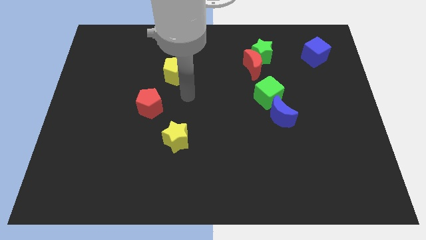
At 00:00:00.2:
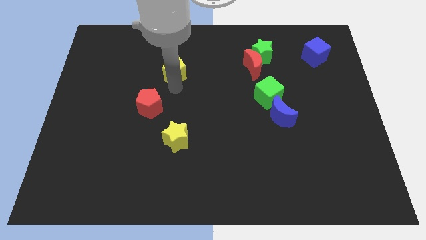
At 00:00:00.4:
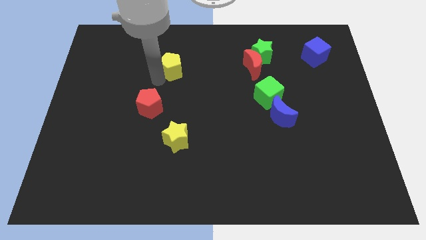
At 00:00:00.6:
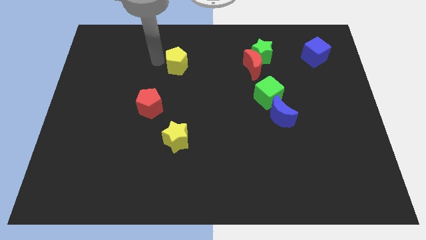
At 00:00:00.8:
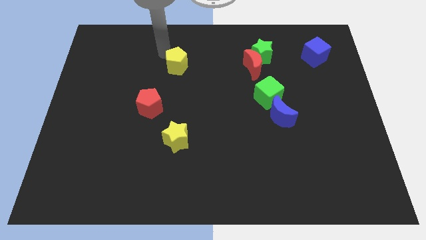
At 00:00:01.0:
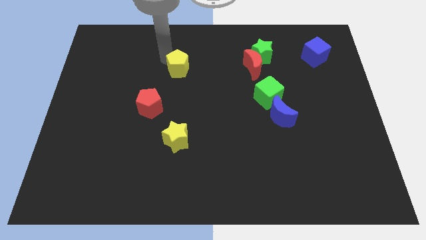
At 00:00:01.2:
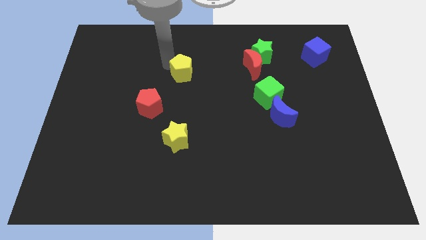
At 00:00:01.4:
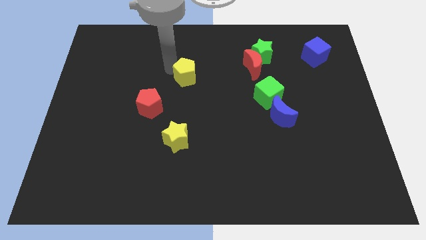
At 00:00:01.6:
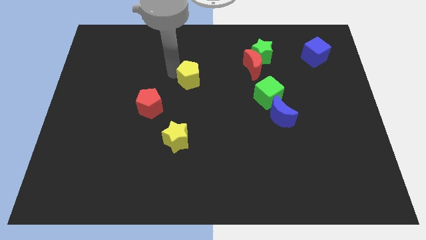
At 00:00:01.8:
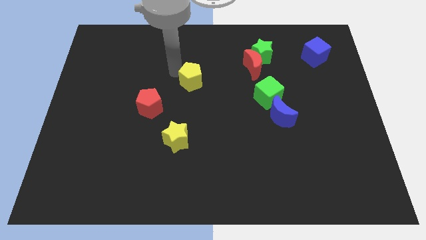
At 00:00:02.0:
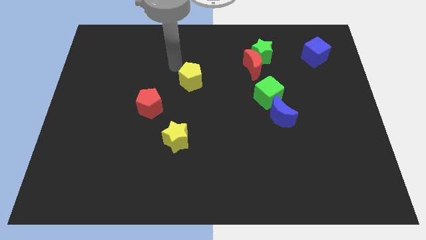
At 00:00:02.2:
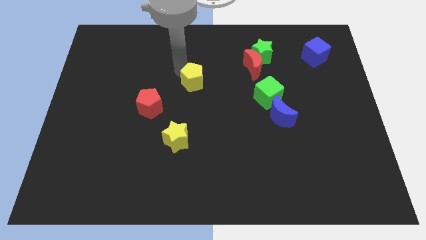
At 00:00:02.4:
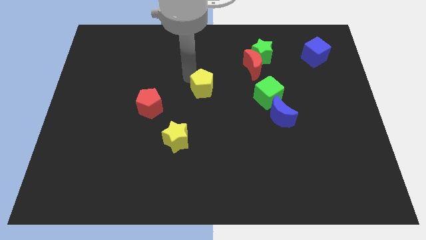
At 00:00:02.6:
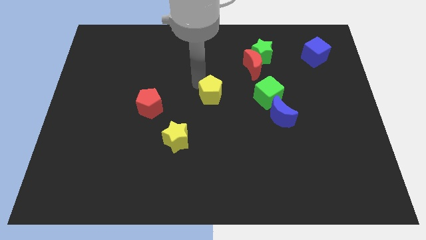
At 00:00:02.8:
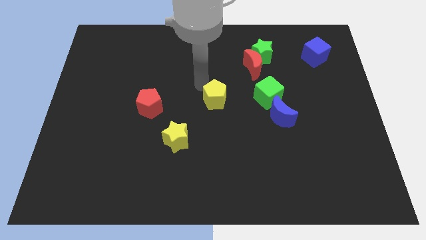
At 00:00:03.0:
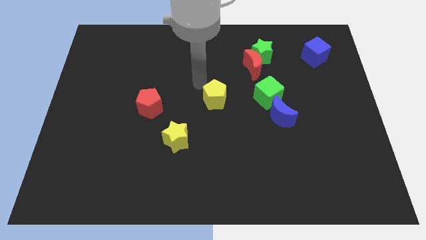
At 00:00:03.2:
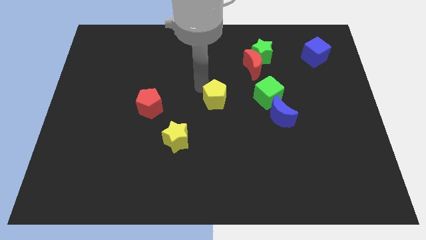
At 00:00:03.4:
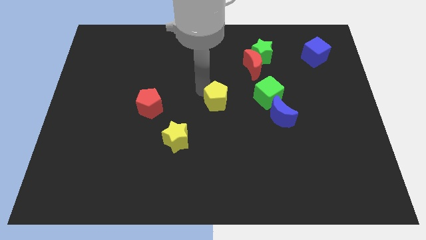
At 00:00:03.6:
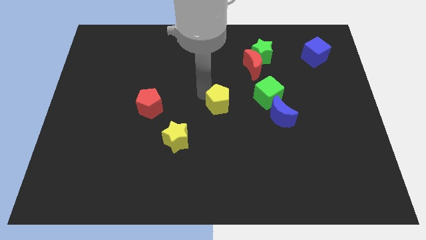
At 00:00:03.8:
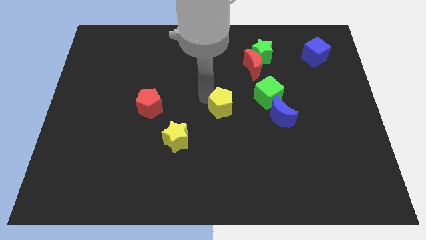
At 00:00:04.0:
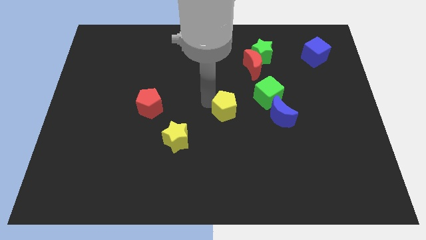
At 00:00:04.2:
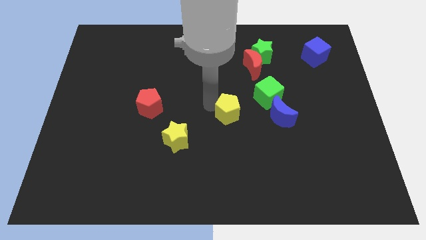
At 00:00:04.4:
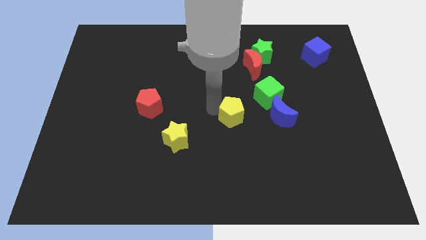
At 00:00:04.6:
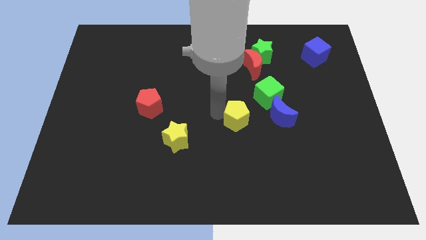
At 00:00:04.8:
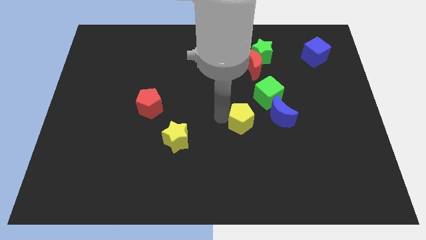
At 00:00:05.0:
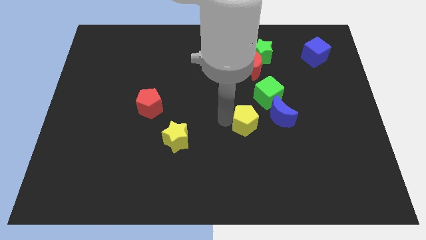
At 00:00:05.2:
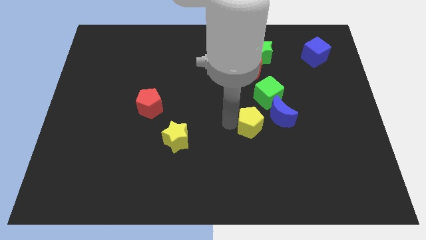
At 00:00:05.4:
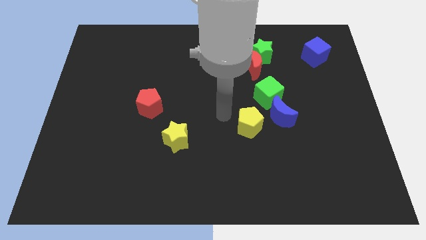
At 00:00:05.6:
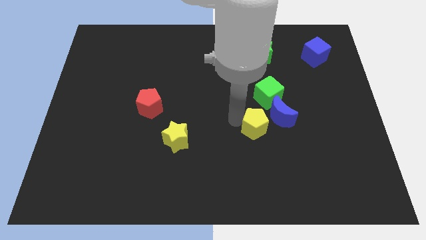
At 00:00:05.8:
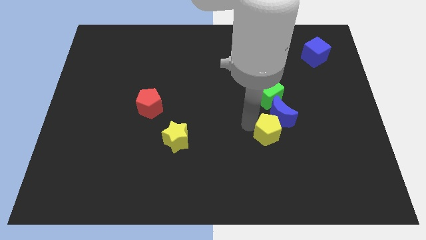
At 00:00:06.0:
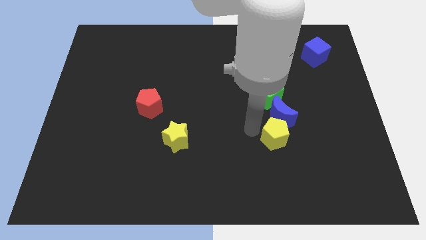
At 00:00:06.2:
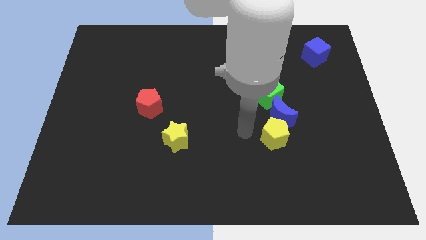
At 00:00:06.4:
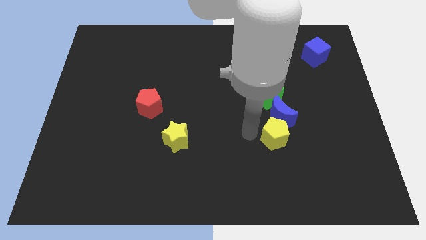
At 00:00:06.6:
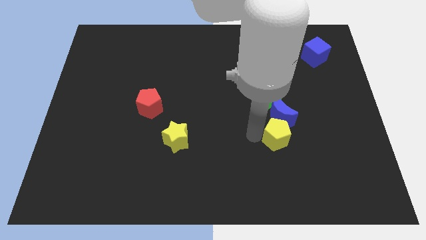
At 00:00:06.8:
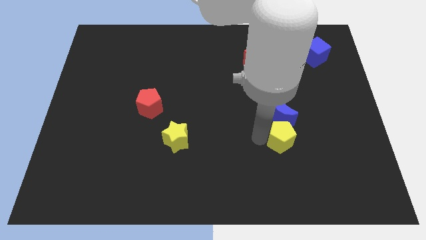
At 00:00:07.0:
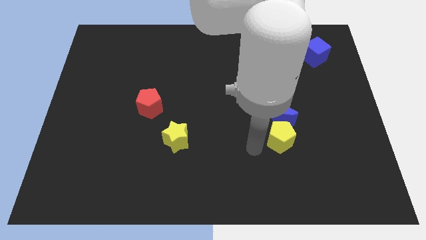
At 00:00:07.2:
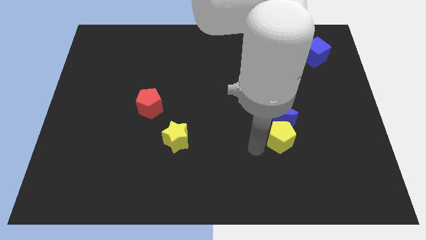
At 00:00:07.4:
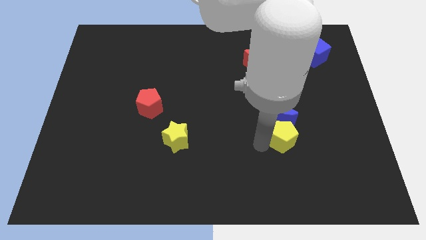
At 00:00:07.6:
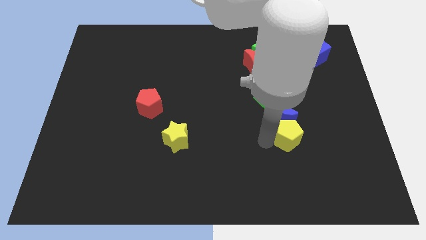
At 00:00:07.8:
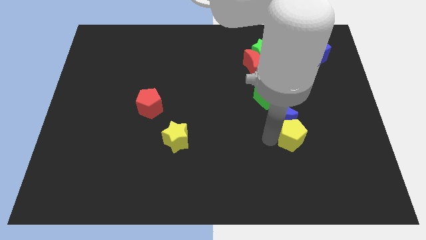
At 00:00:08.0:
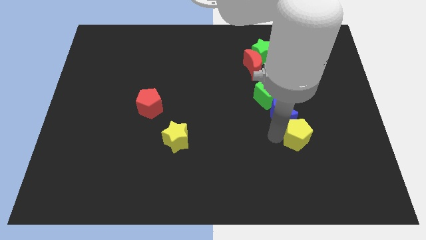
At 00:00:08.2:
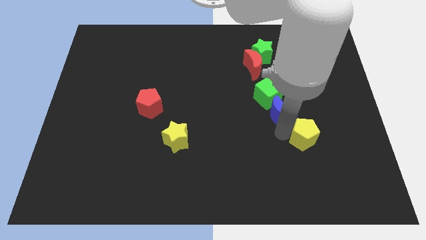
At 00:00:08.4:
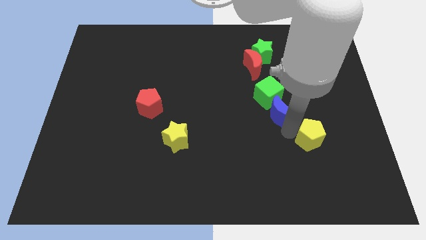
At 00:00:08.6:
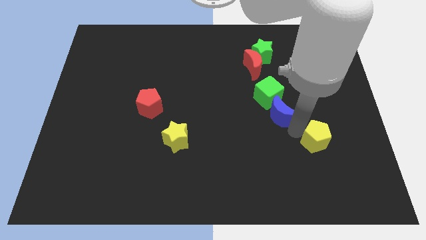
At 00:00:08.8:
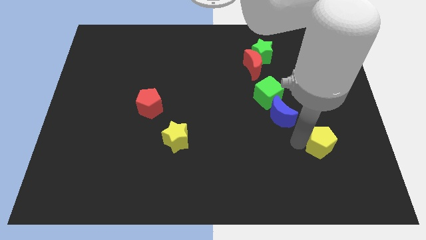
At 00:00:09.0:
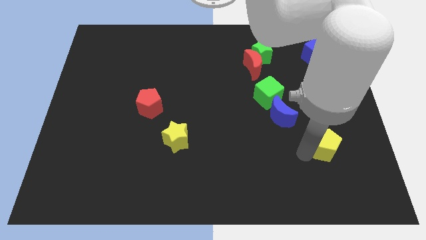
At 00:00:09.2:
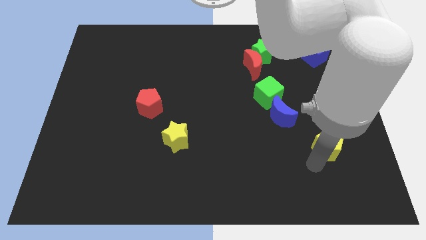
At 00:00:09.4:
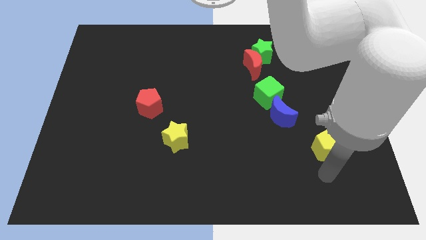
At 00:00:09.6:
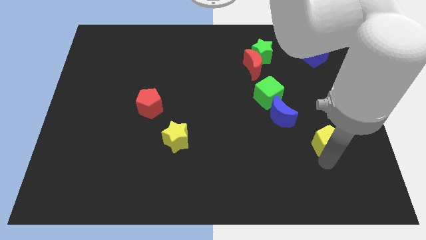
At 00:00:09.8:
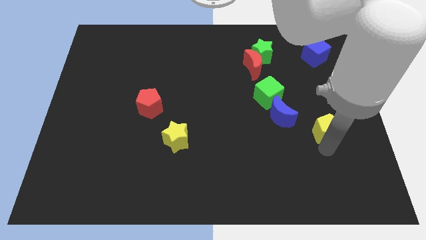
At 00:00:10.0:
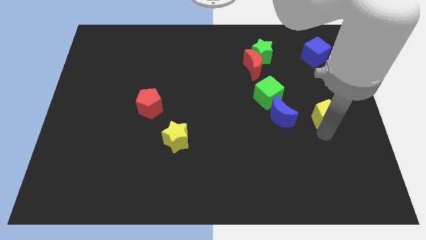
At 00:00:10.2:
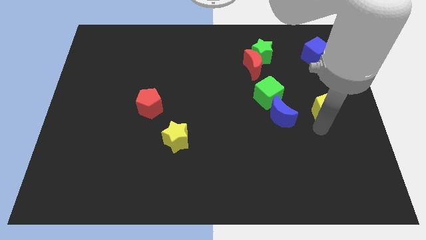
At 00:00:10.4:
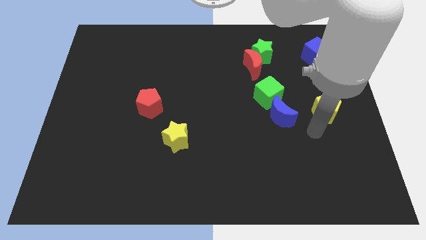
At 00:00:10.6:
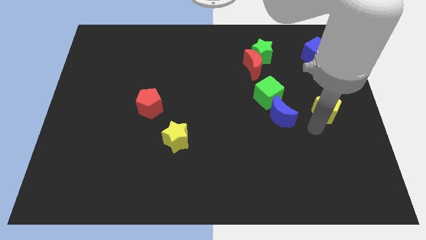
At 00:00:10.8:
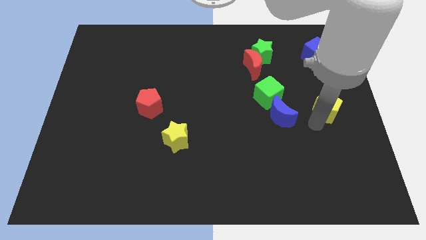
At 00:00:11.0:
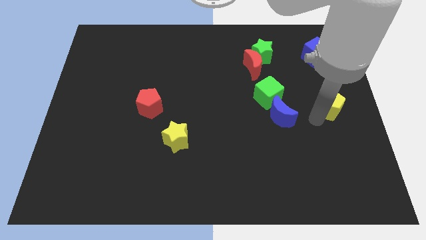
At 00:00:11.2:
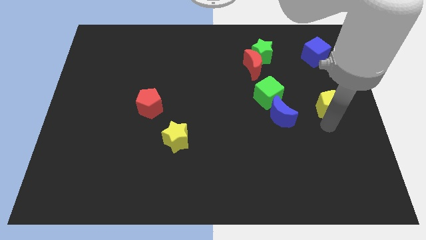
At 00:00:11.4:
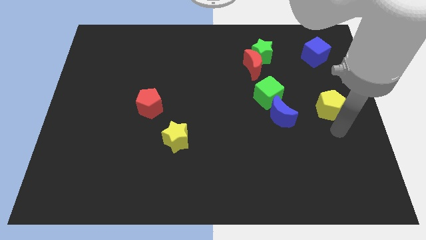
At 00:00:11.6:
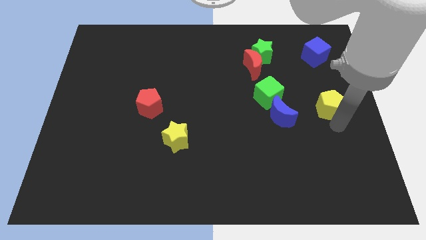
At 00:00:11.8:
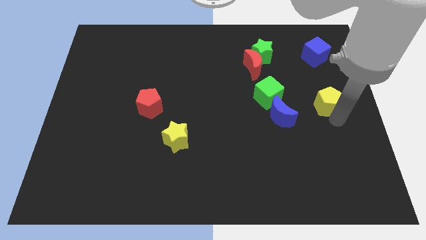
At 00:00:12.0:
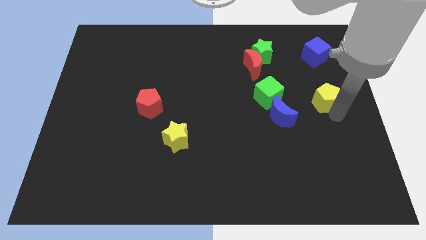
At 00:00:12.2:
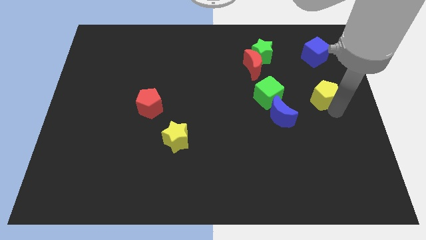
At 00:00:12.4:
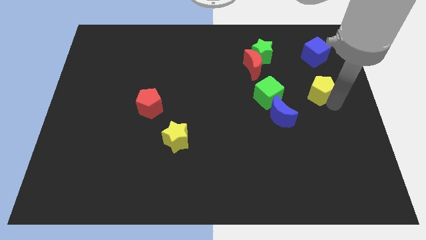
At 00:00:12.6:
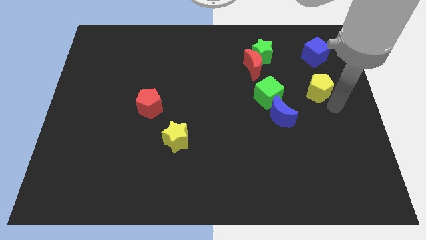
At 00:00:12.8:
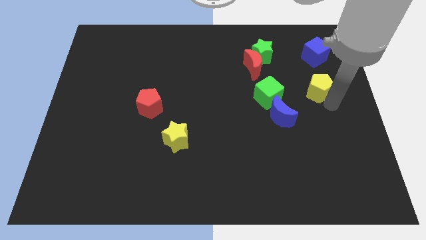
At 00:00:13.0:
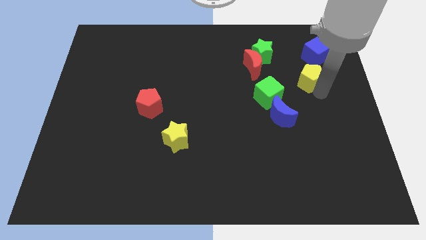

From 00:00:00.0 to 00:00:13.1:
push the yellow pentagon to the bottom left side of the blue cube

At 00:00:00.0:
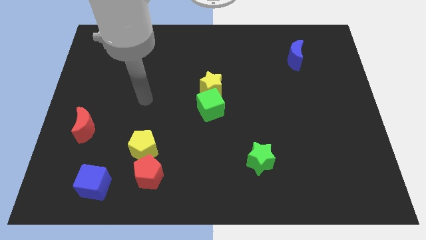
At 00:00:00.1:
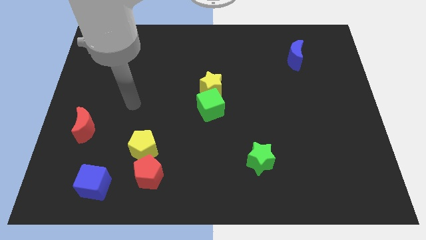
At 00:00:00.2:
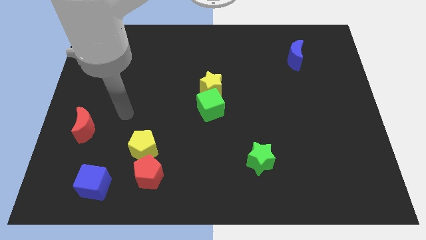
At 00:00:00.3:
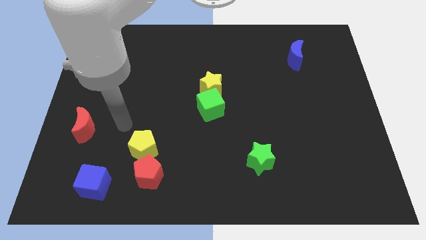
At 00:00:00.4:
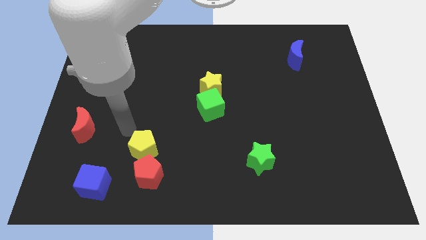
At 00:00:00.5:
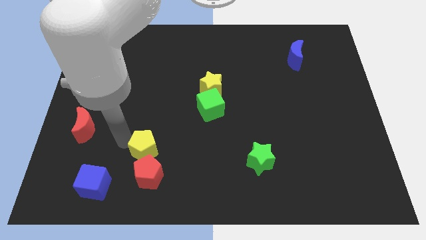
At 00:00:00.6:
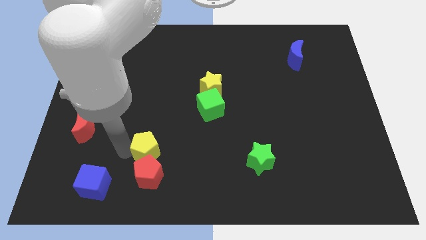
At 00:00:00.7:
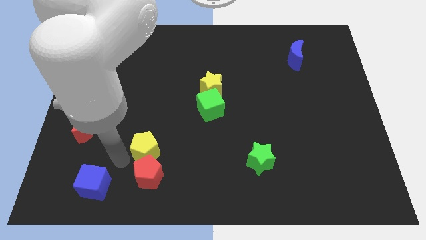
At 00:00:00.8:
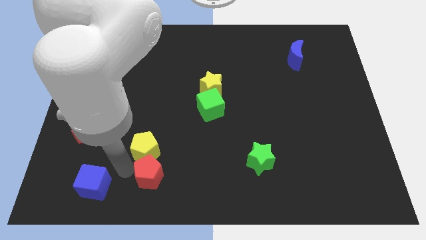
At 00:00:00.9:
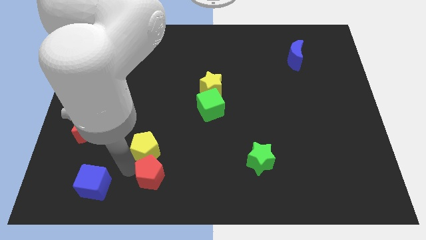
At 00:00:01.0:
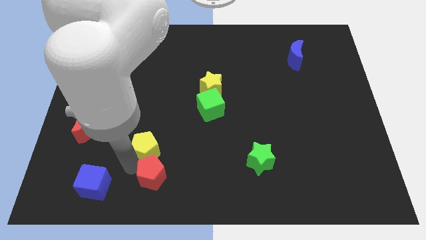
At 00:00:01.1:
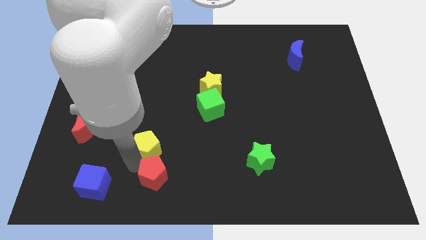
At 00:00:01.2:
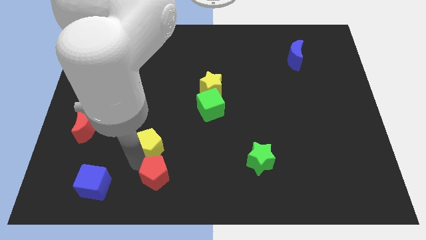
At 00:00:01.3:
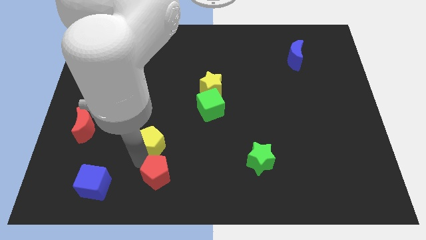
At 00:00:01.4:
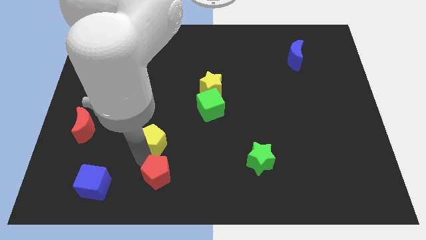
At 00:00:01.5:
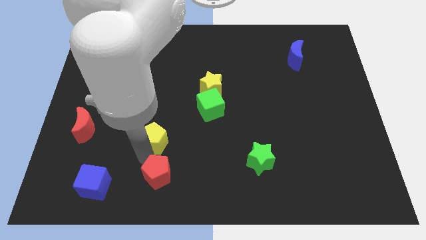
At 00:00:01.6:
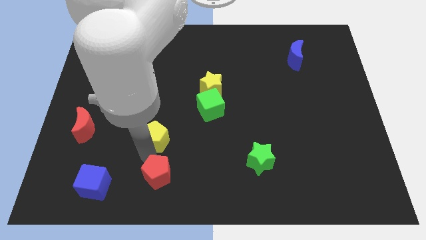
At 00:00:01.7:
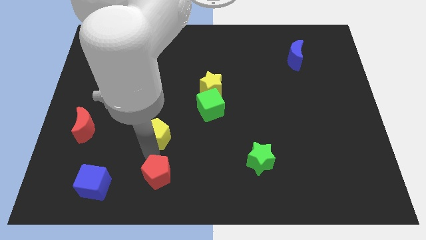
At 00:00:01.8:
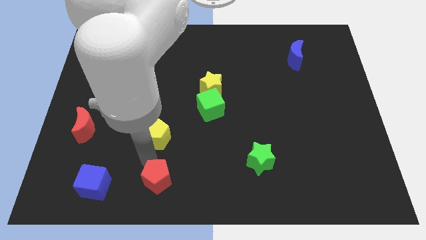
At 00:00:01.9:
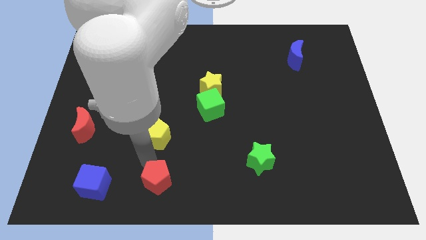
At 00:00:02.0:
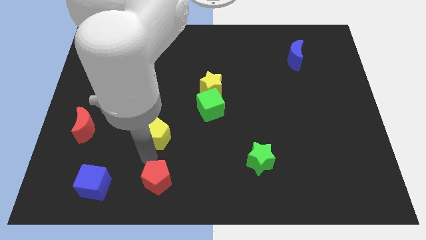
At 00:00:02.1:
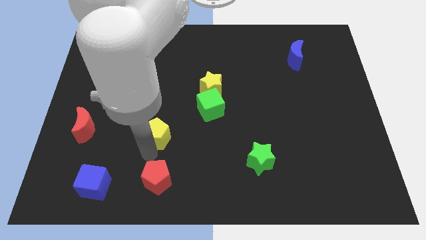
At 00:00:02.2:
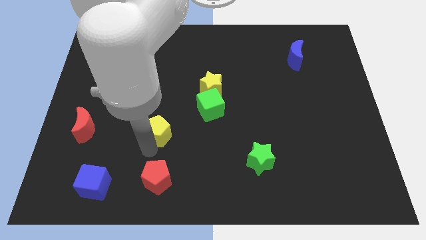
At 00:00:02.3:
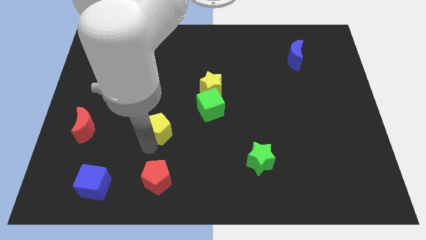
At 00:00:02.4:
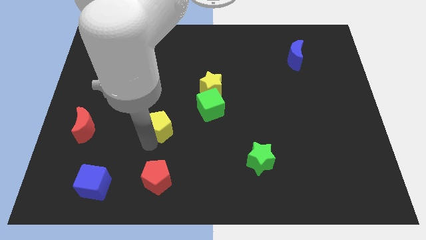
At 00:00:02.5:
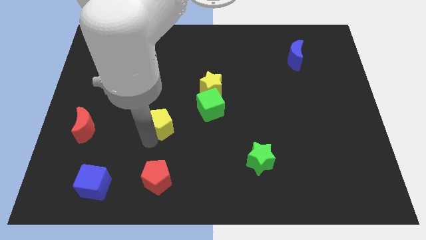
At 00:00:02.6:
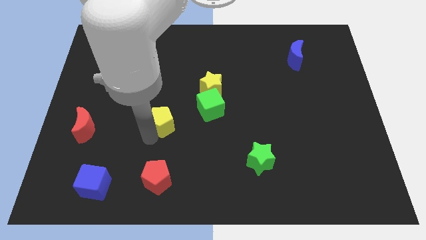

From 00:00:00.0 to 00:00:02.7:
slide the yellow pentagon left of the green cube
